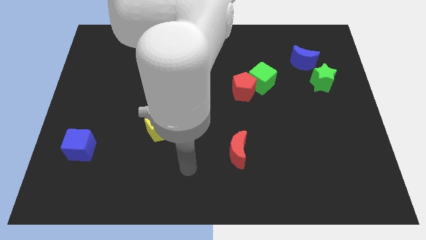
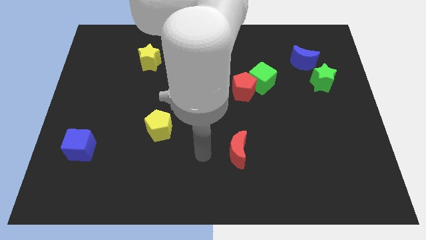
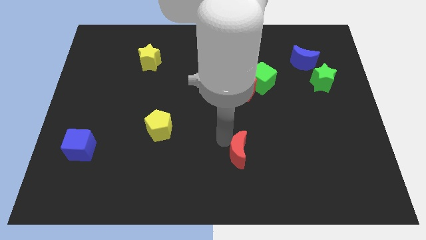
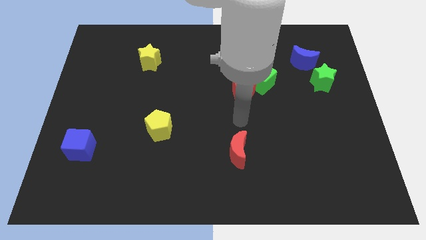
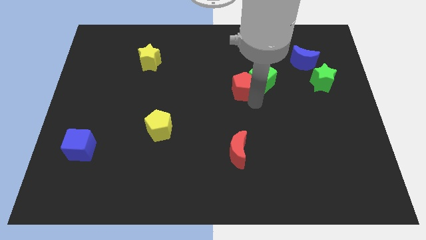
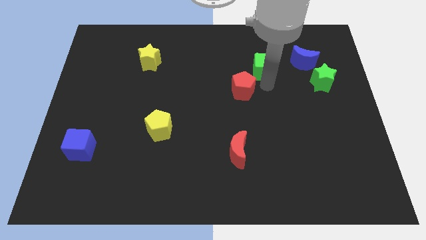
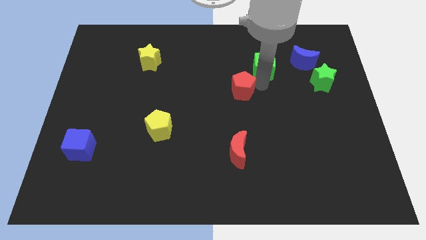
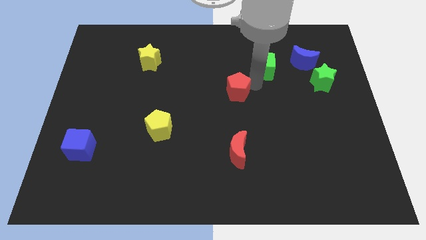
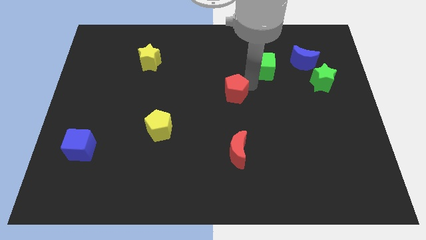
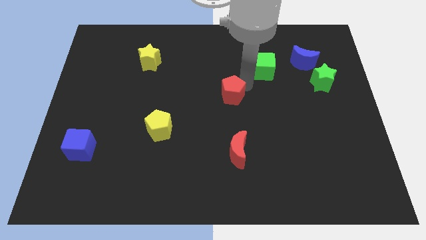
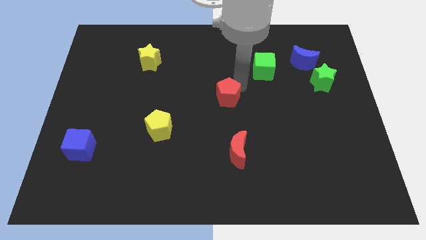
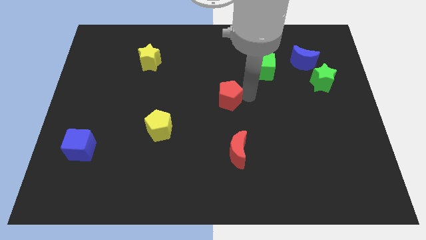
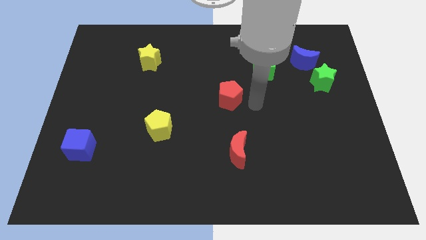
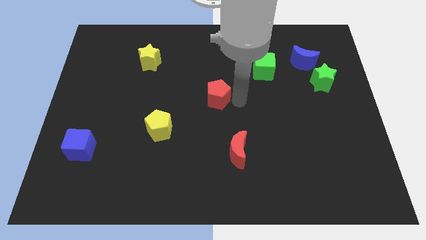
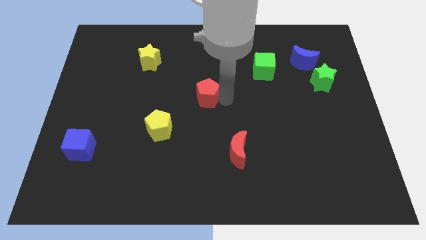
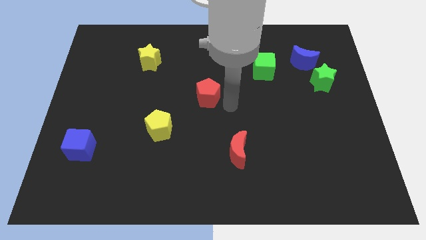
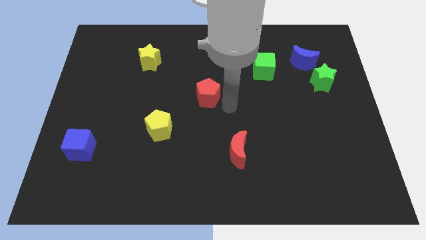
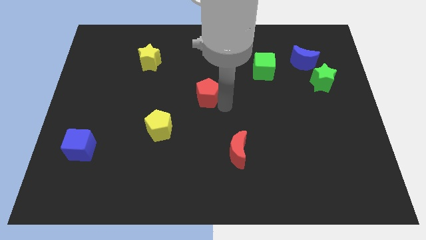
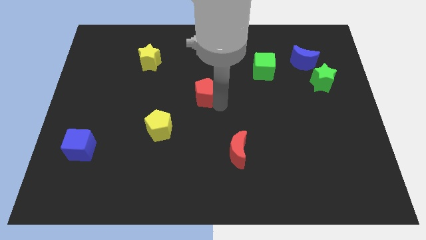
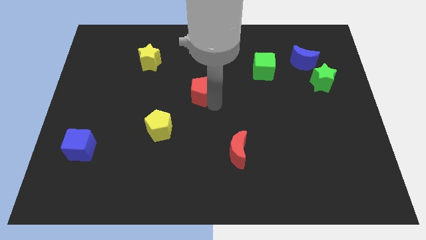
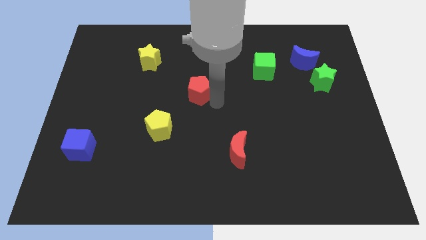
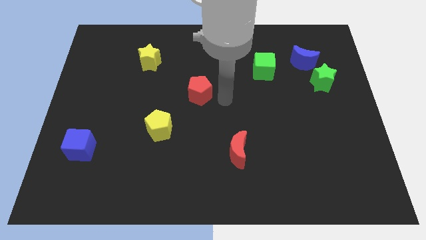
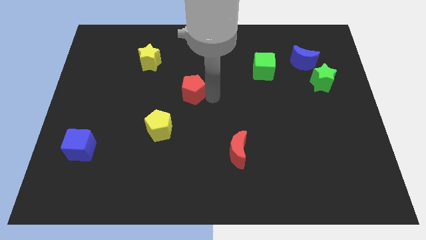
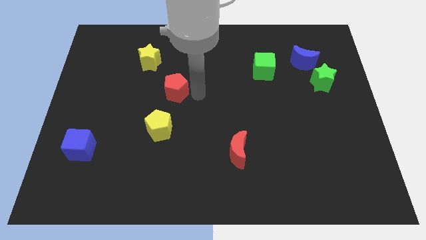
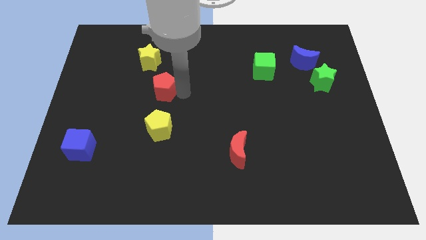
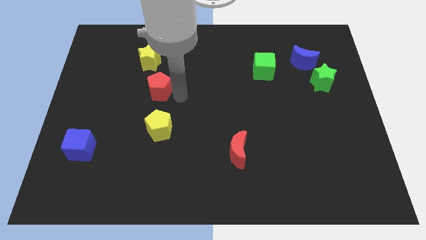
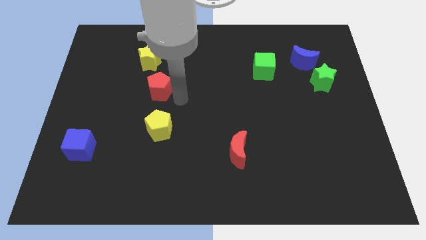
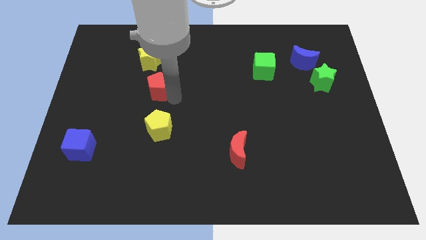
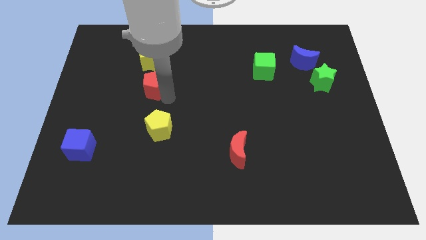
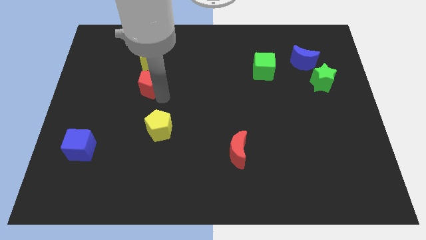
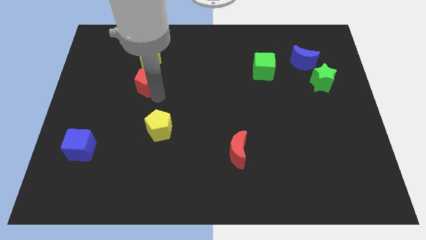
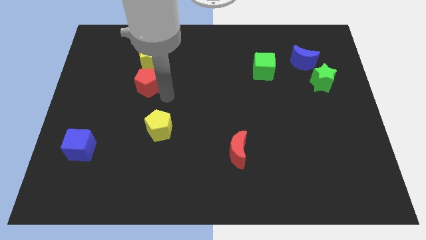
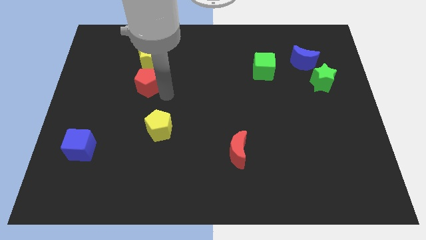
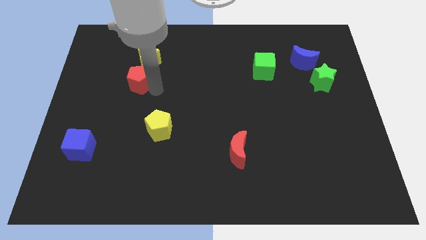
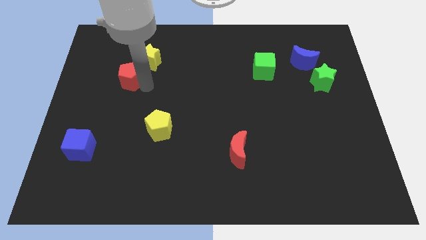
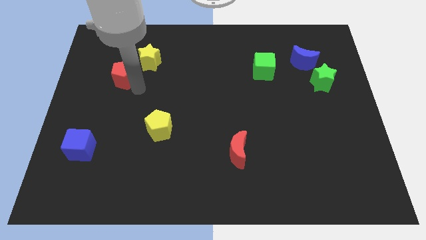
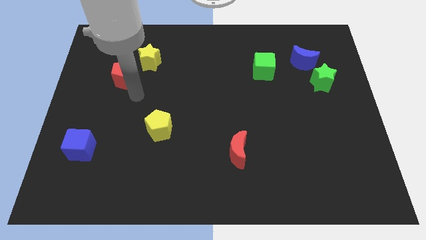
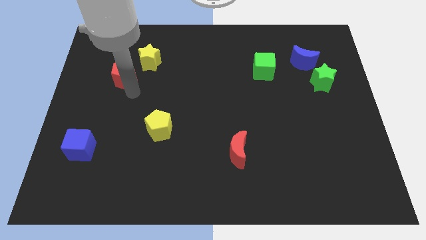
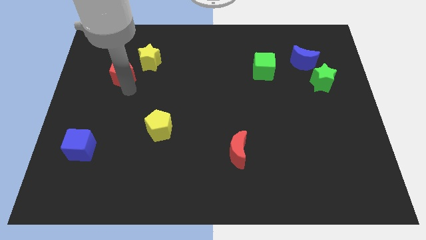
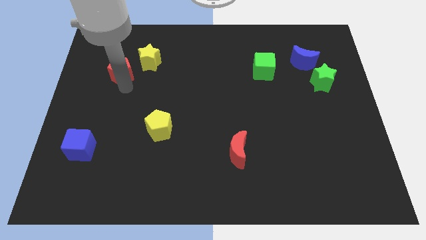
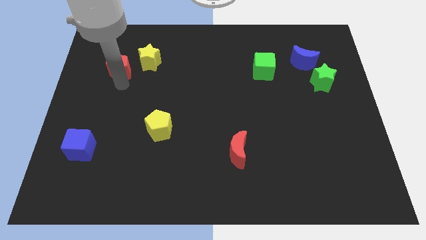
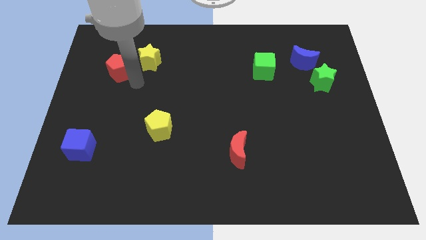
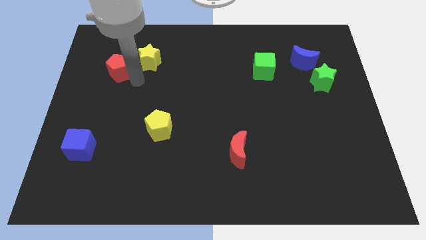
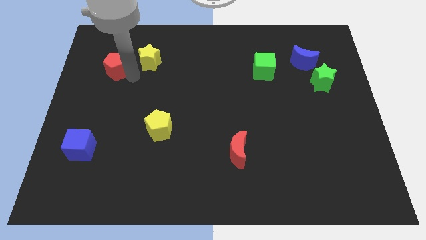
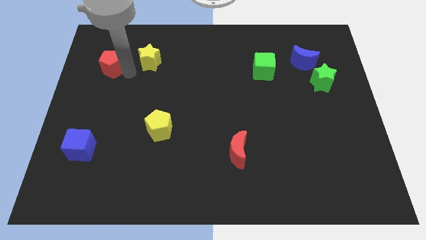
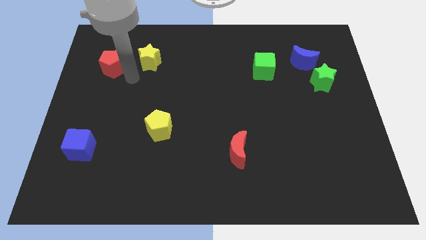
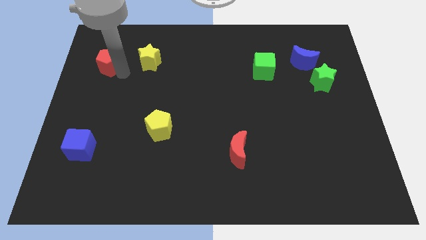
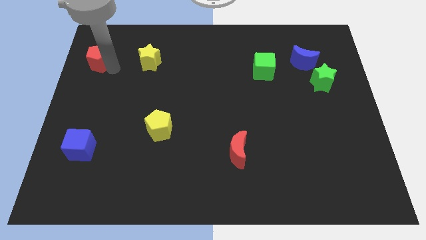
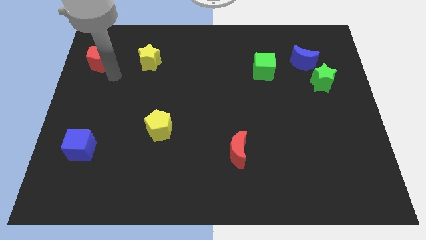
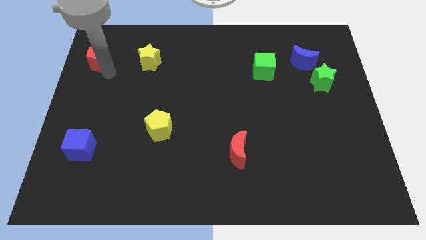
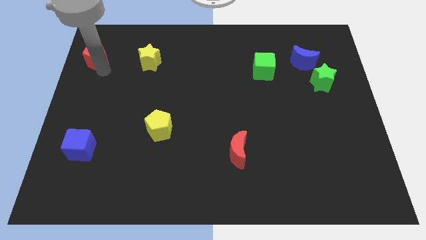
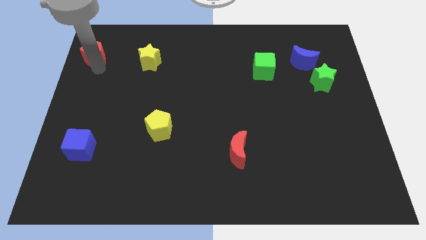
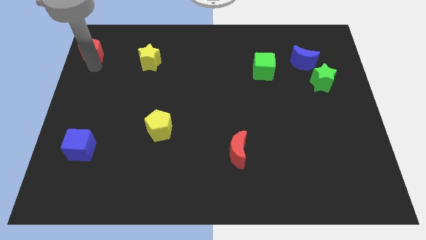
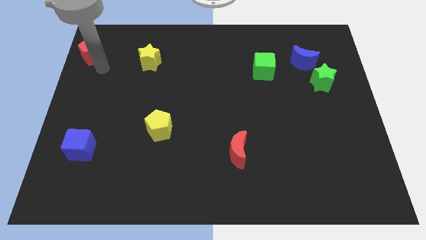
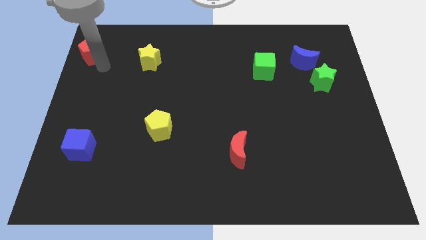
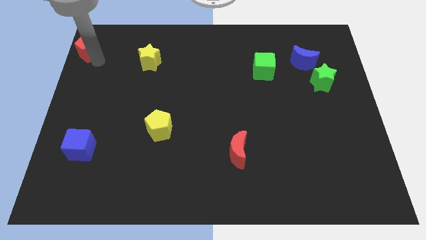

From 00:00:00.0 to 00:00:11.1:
slide the red pentagon to the top left corner

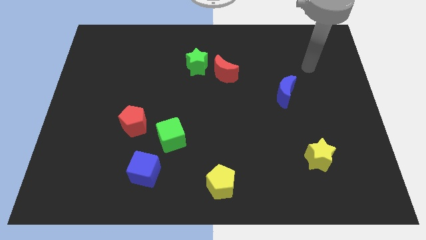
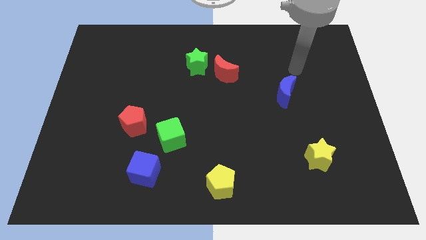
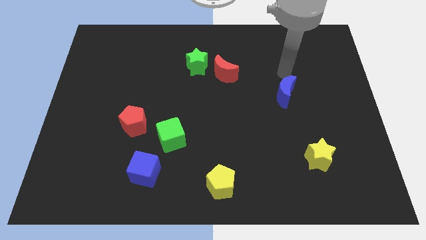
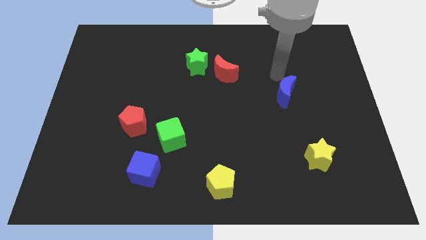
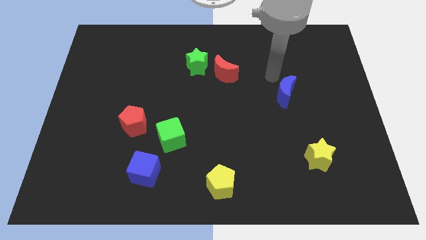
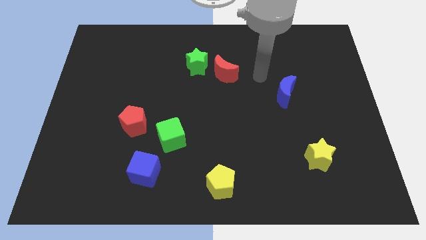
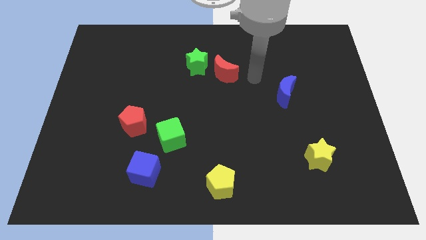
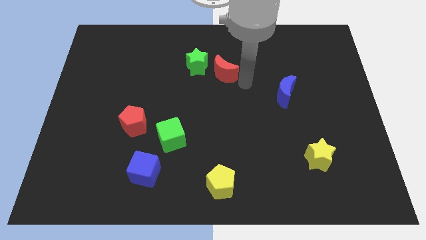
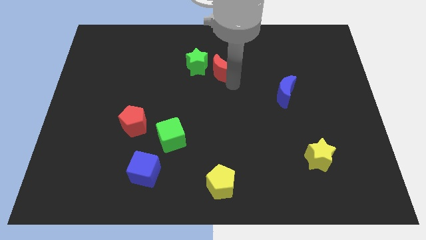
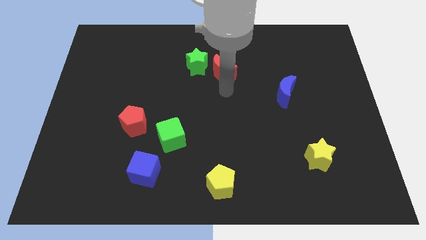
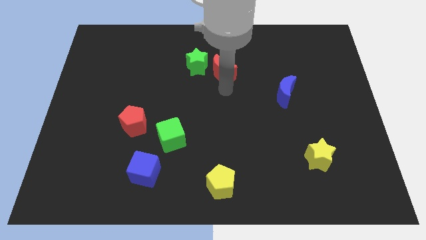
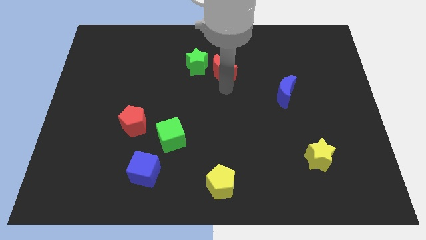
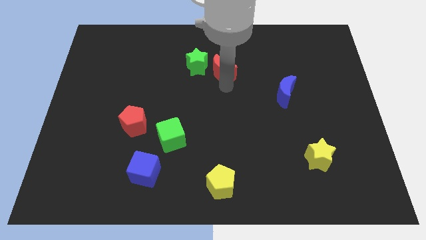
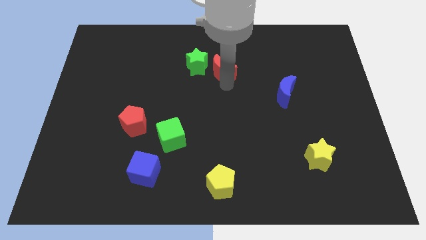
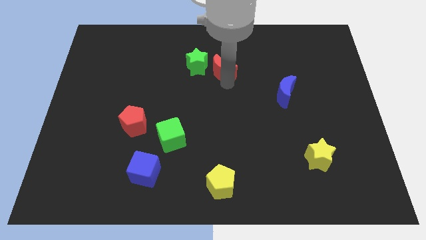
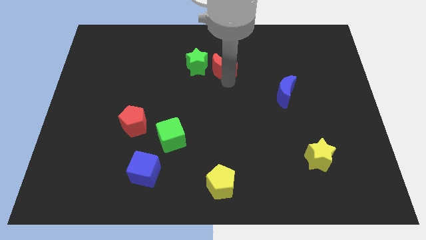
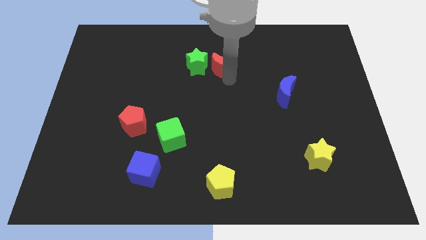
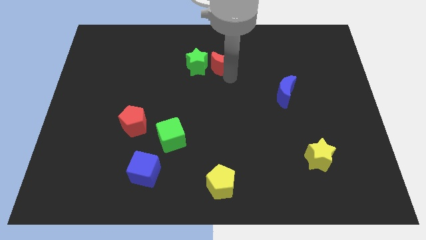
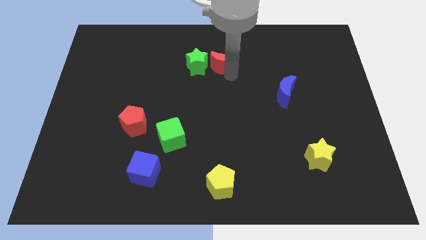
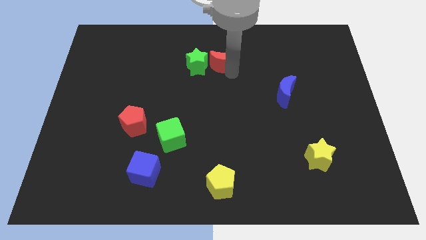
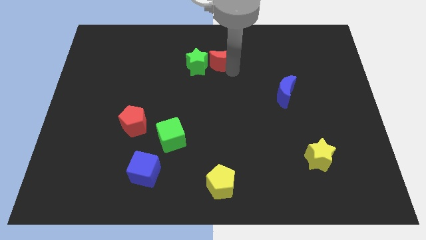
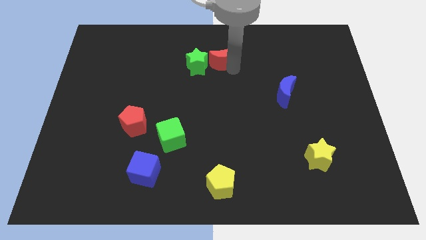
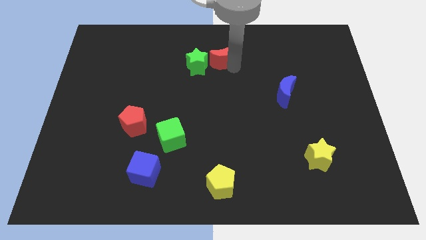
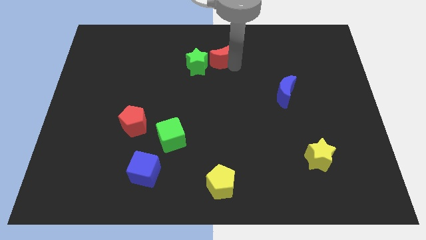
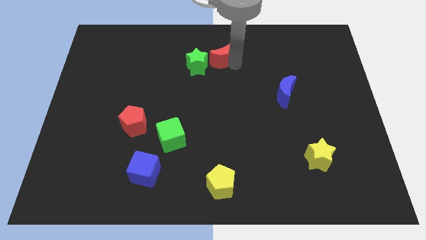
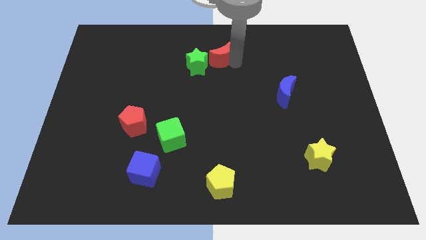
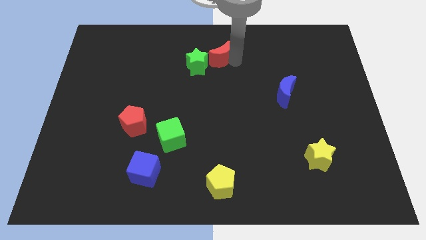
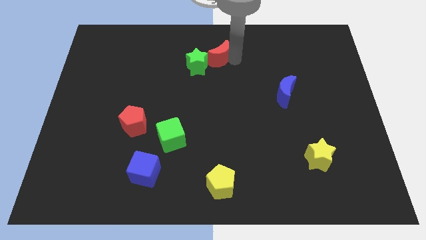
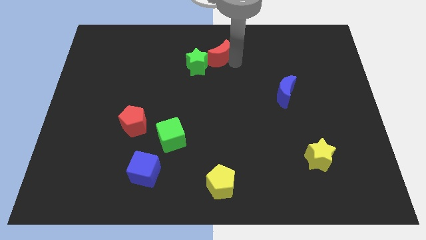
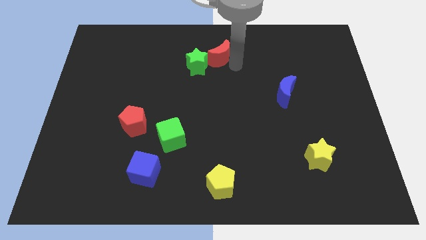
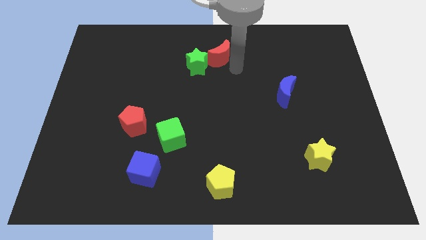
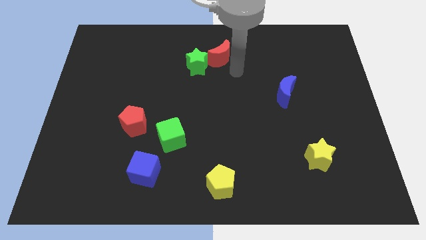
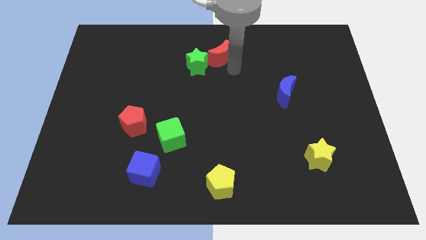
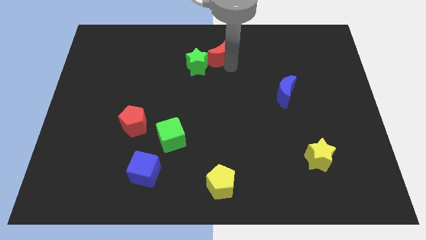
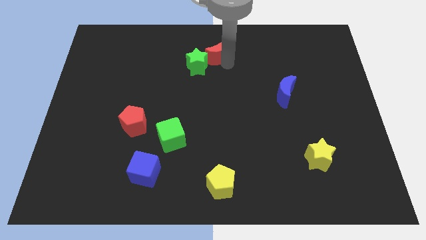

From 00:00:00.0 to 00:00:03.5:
push the red moon to the top
